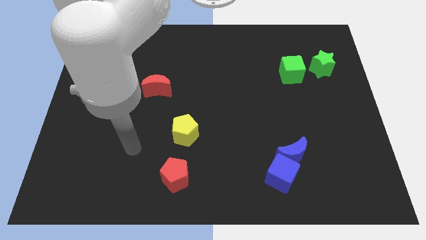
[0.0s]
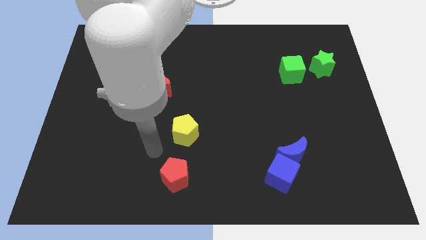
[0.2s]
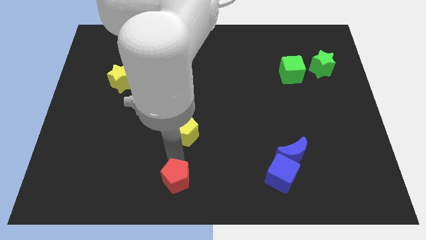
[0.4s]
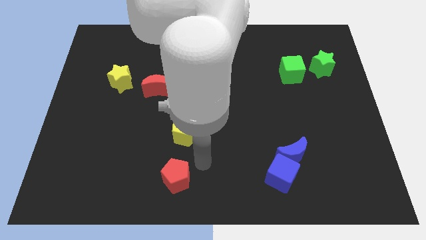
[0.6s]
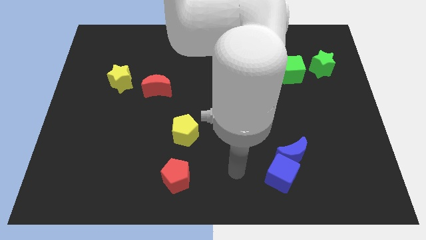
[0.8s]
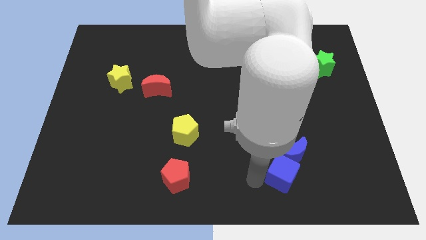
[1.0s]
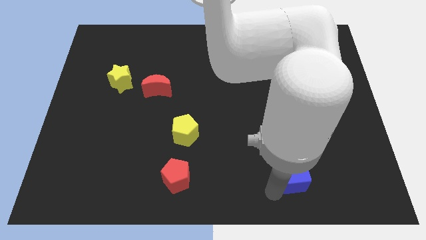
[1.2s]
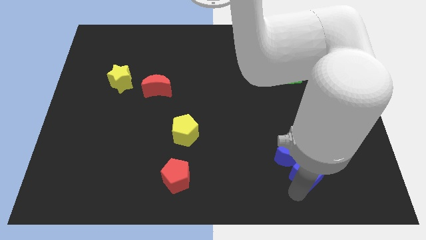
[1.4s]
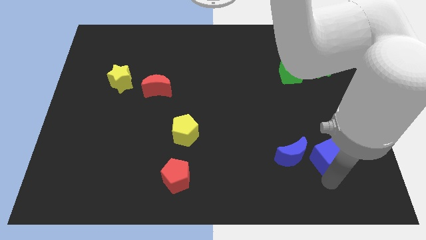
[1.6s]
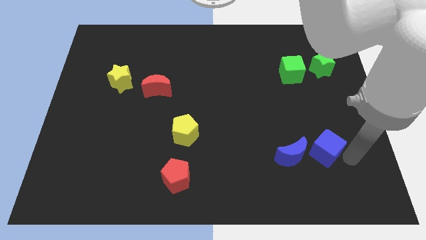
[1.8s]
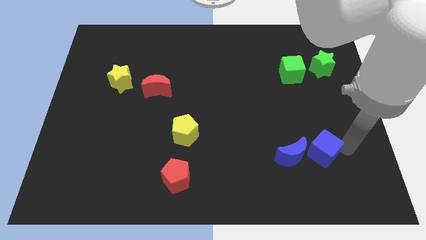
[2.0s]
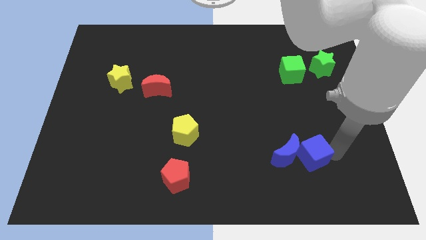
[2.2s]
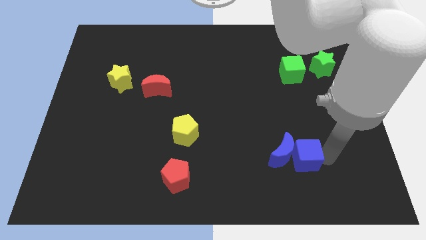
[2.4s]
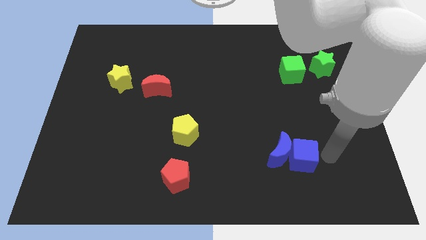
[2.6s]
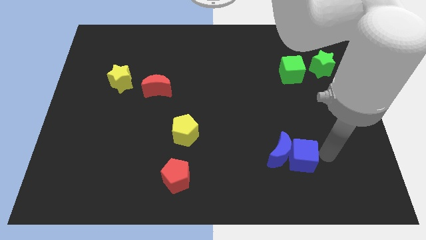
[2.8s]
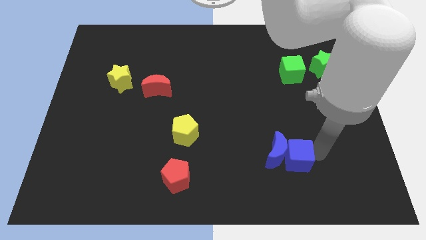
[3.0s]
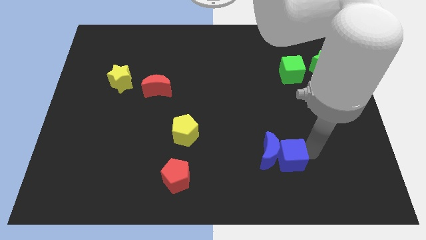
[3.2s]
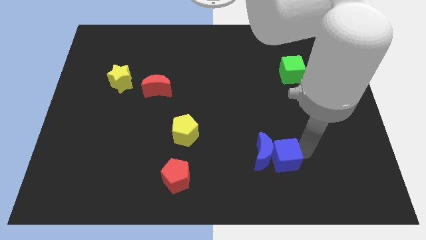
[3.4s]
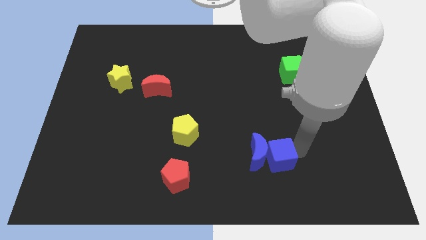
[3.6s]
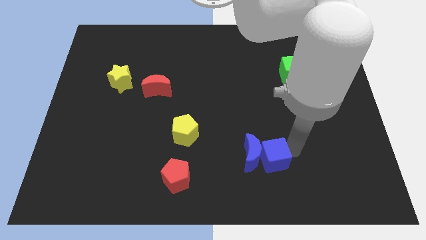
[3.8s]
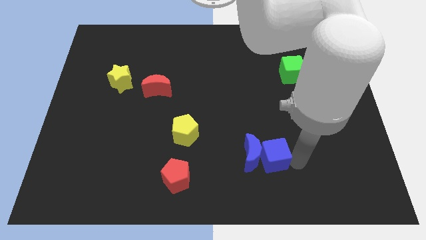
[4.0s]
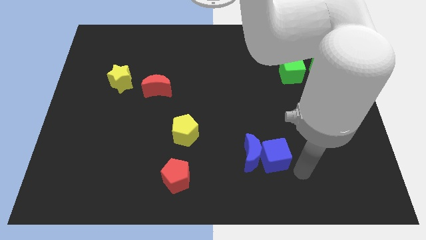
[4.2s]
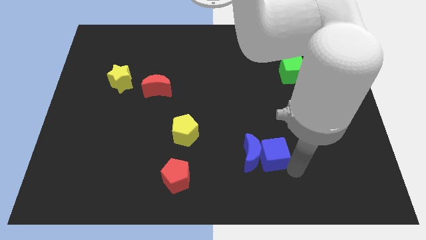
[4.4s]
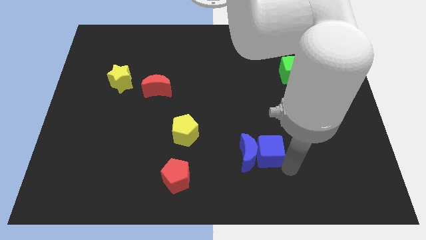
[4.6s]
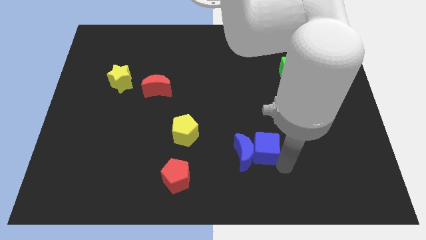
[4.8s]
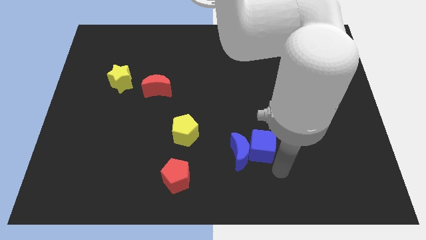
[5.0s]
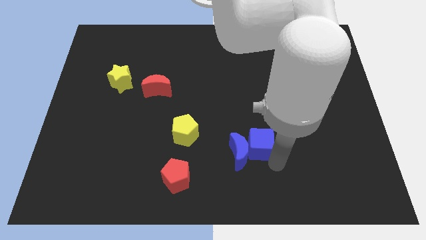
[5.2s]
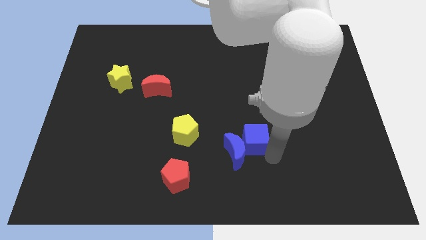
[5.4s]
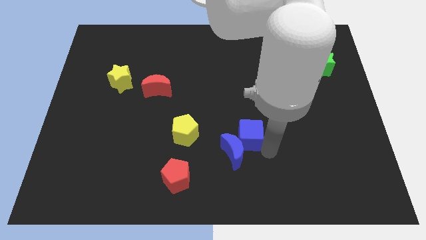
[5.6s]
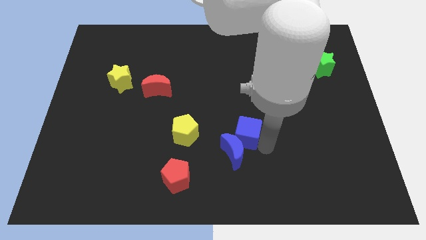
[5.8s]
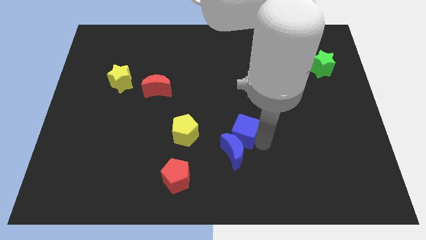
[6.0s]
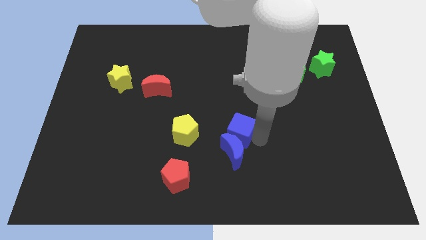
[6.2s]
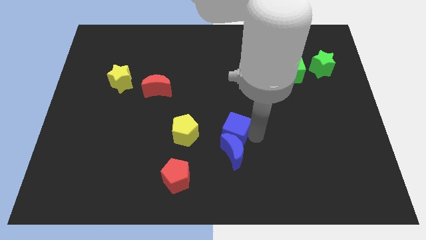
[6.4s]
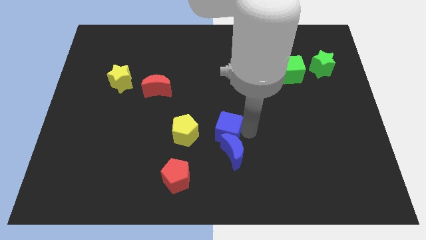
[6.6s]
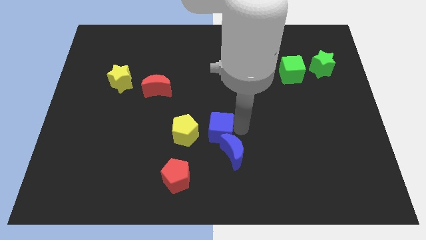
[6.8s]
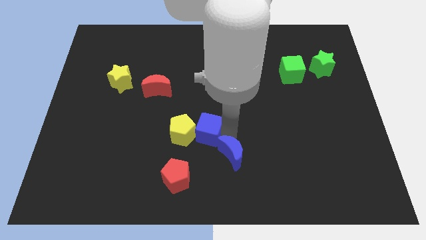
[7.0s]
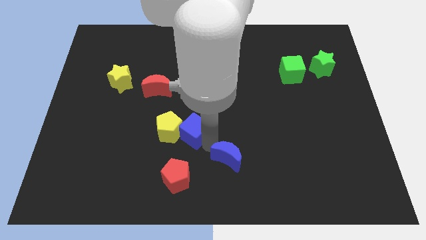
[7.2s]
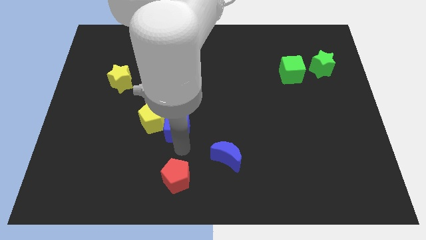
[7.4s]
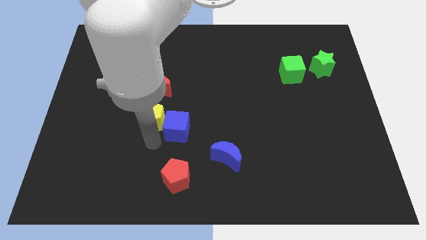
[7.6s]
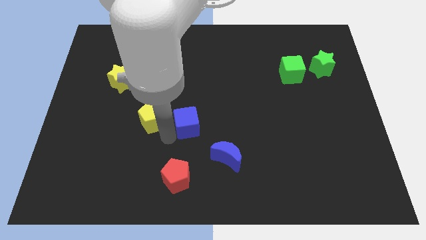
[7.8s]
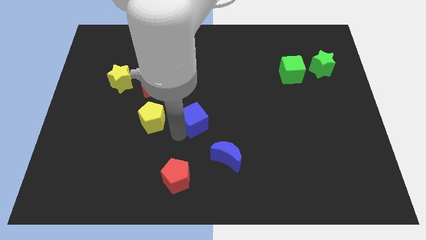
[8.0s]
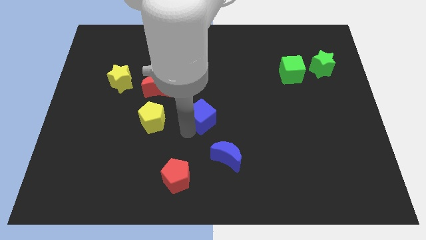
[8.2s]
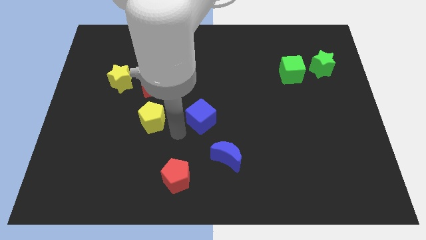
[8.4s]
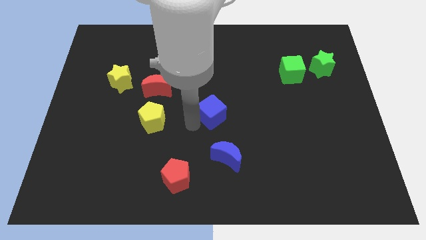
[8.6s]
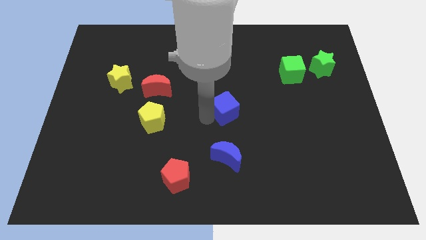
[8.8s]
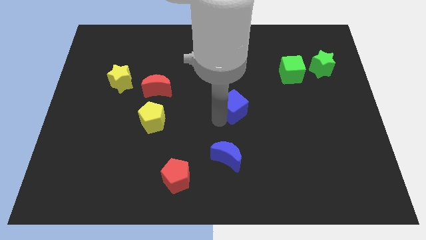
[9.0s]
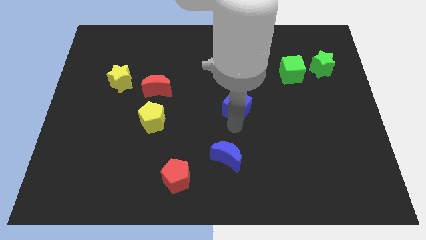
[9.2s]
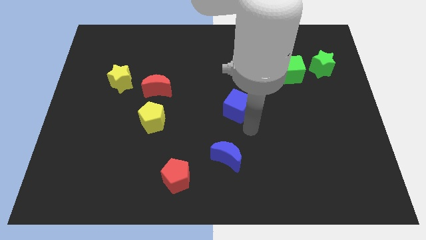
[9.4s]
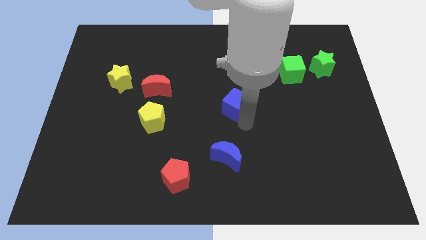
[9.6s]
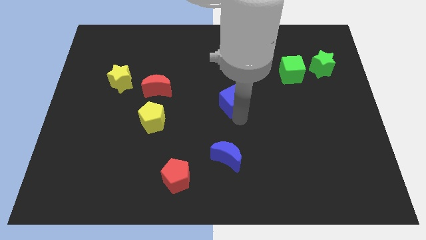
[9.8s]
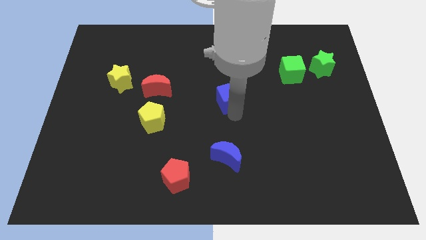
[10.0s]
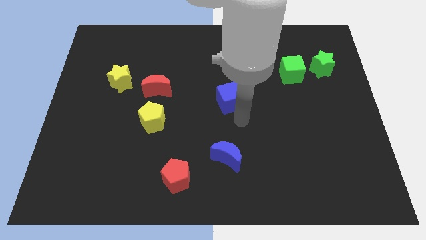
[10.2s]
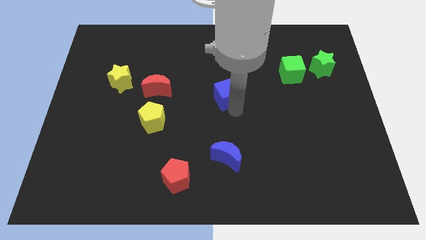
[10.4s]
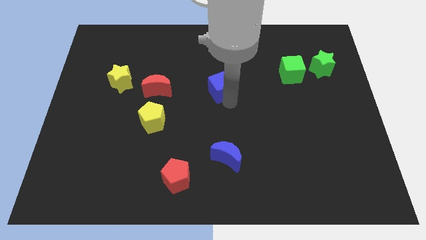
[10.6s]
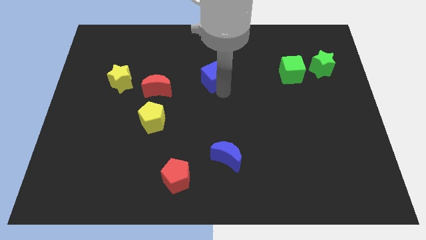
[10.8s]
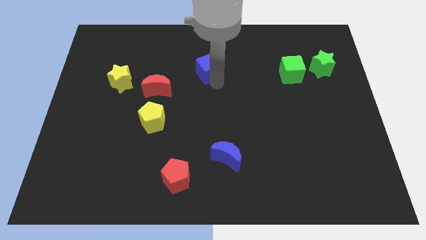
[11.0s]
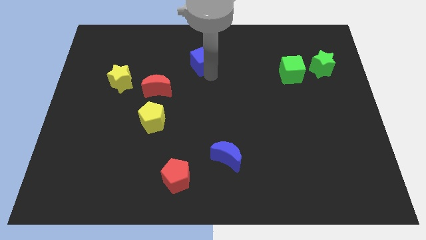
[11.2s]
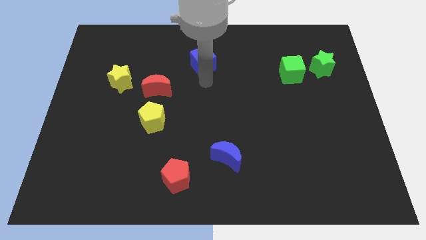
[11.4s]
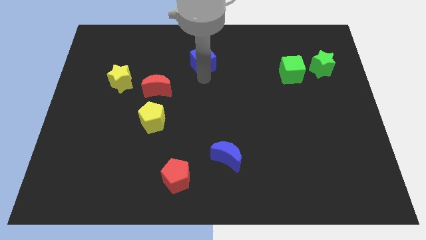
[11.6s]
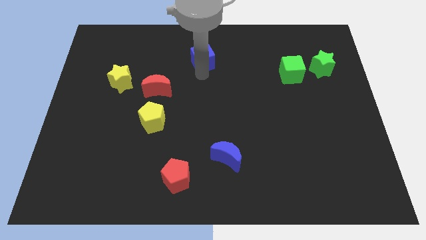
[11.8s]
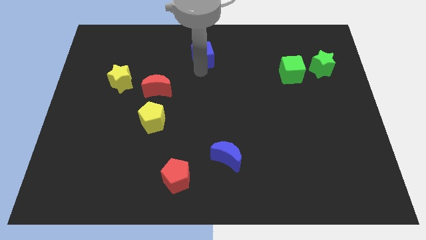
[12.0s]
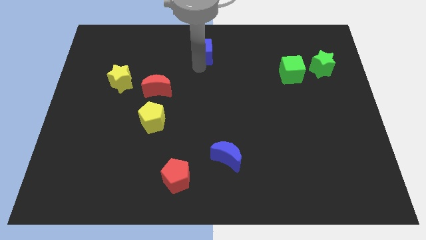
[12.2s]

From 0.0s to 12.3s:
slide the blue cube to the top side

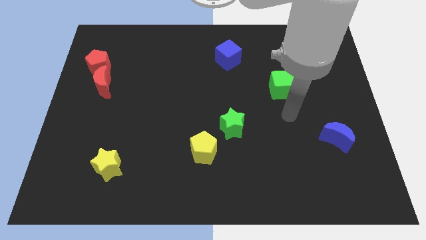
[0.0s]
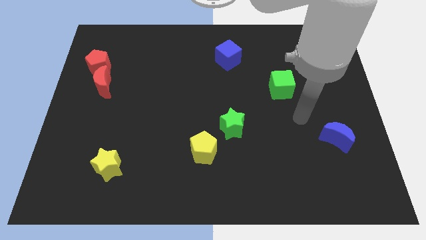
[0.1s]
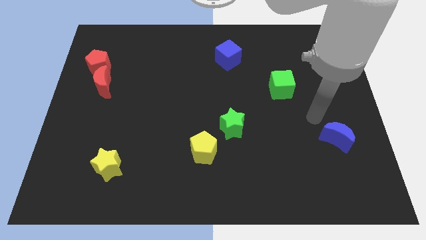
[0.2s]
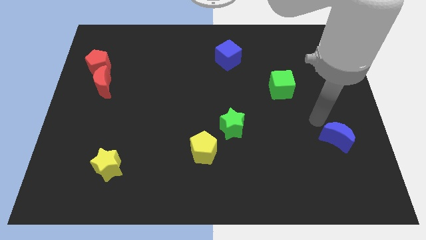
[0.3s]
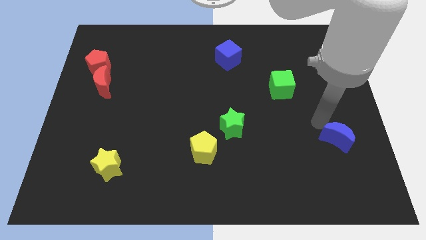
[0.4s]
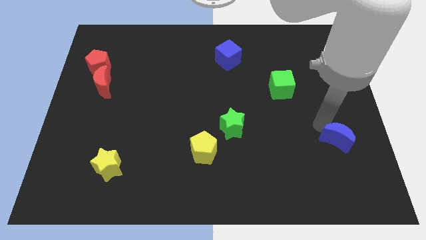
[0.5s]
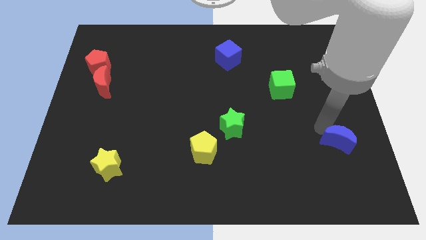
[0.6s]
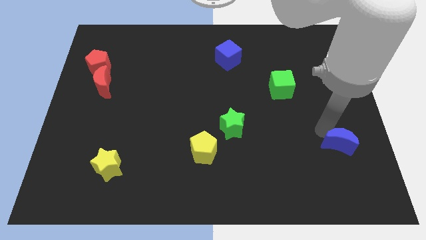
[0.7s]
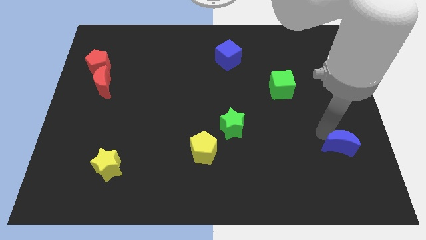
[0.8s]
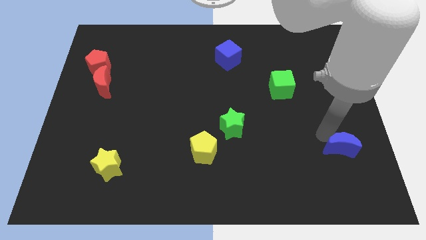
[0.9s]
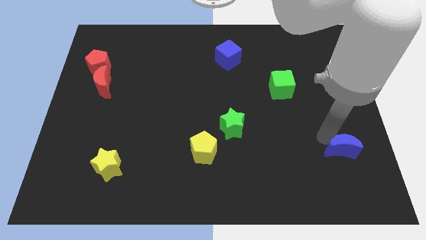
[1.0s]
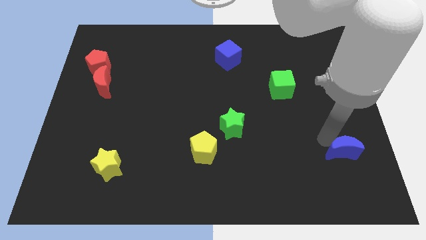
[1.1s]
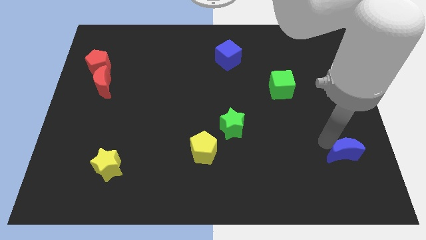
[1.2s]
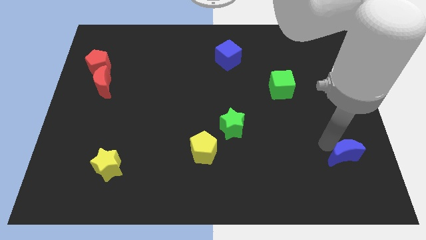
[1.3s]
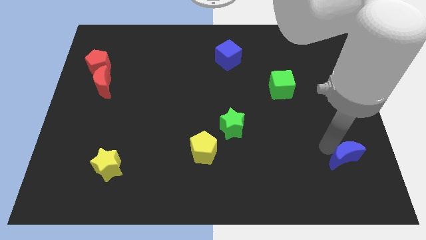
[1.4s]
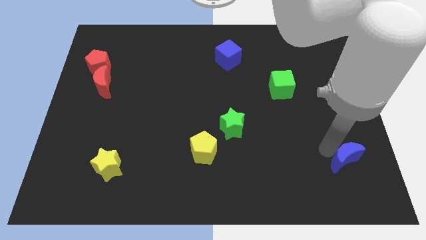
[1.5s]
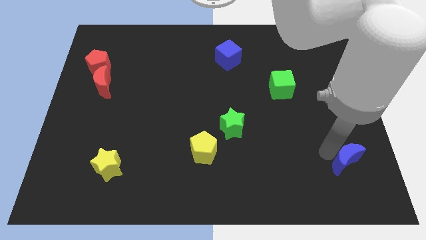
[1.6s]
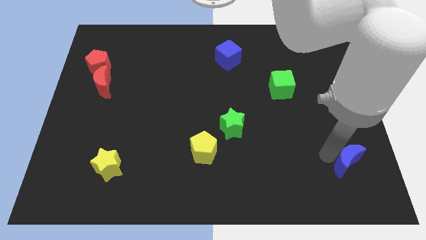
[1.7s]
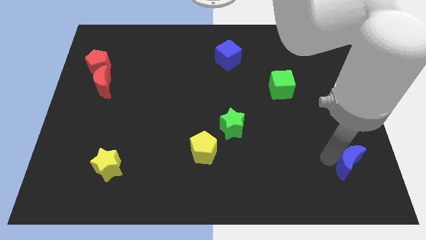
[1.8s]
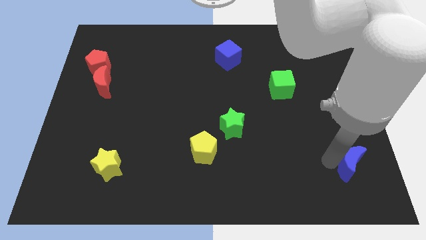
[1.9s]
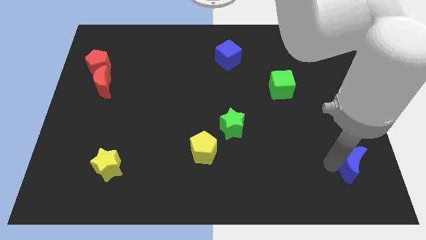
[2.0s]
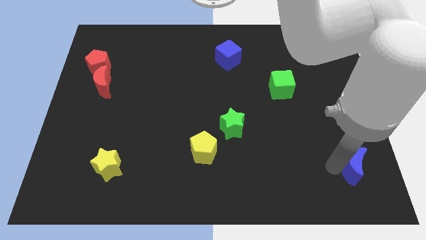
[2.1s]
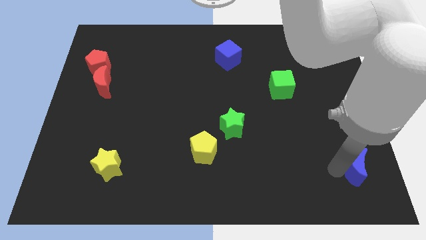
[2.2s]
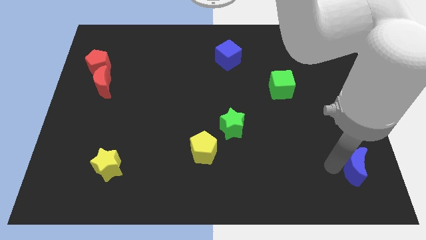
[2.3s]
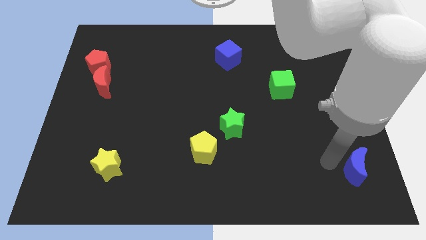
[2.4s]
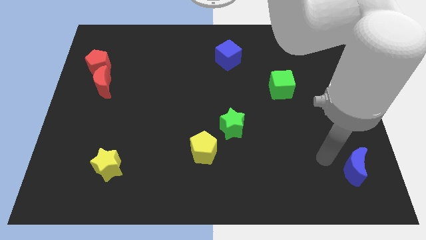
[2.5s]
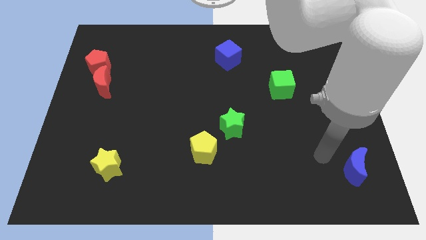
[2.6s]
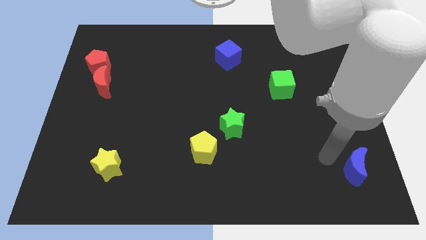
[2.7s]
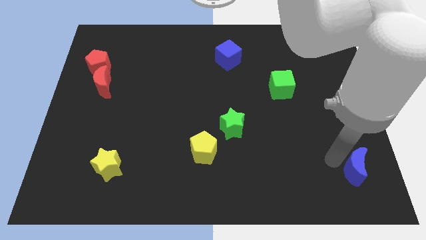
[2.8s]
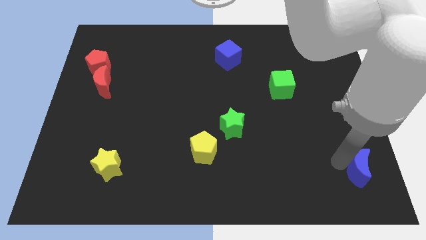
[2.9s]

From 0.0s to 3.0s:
move the blue moon to the lower right corner
